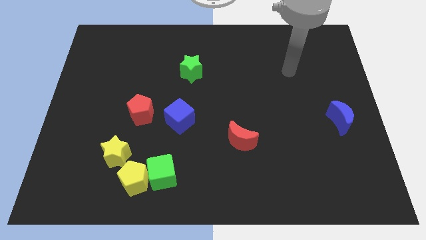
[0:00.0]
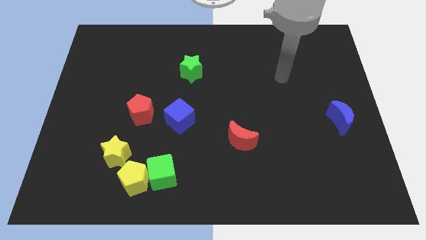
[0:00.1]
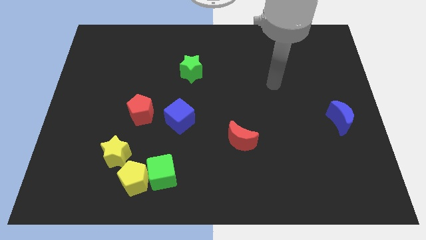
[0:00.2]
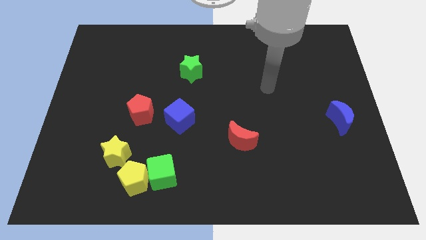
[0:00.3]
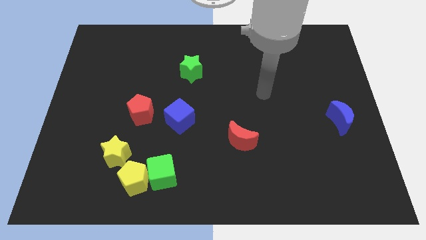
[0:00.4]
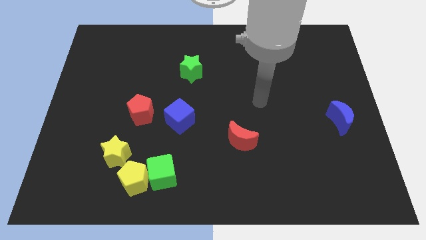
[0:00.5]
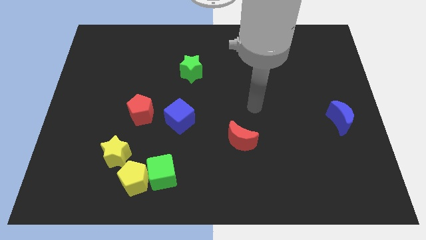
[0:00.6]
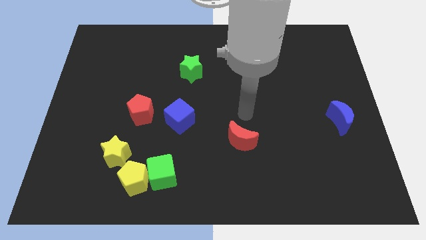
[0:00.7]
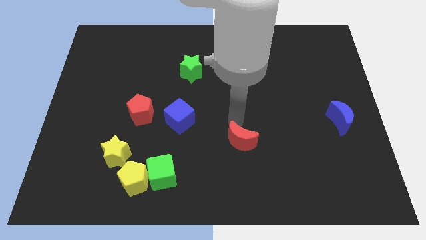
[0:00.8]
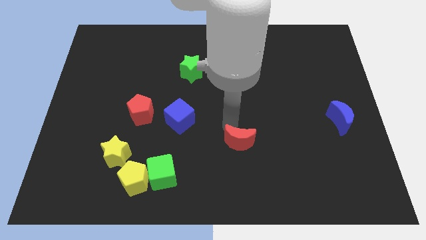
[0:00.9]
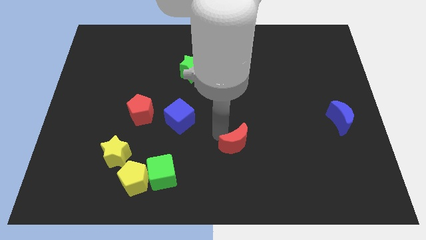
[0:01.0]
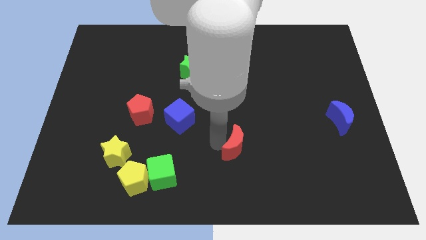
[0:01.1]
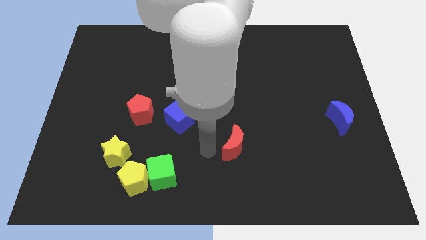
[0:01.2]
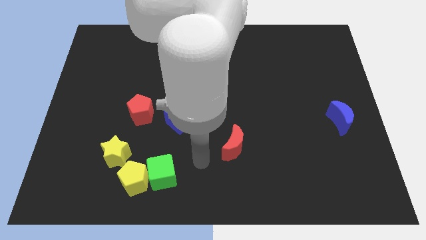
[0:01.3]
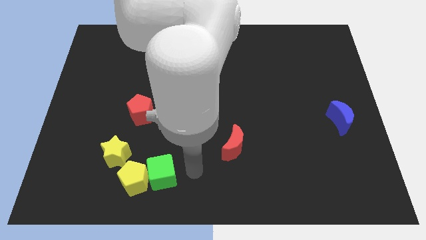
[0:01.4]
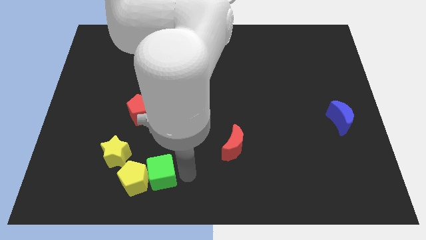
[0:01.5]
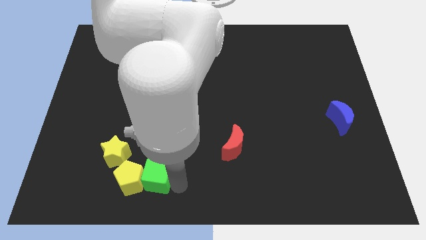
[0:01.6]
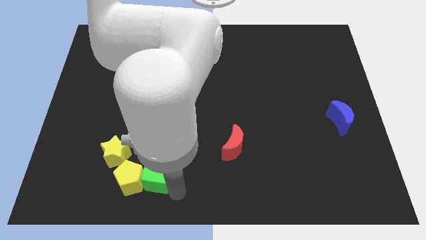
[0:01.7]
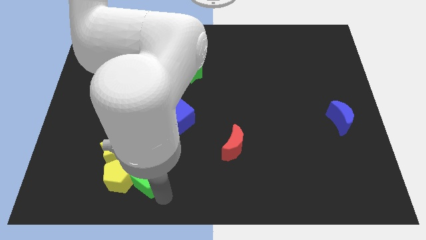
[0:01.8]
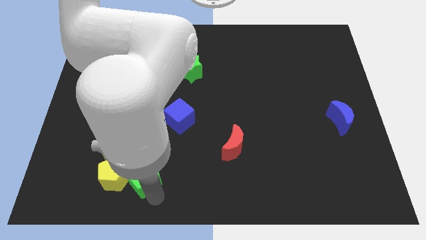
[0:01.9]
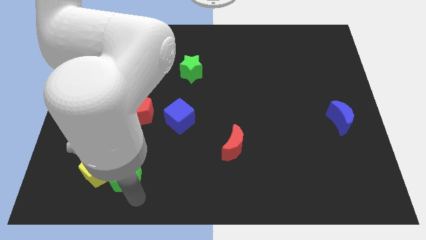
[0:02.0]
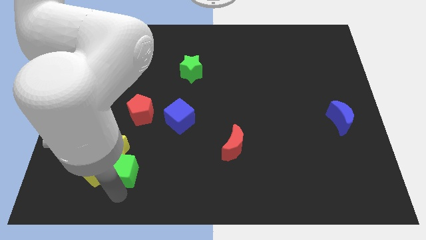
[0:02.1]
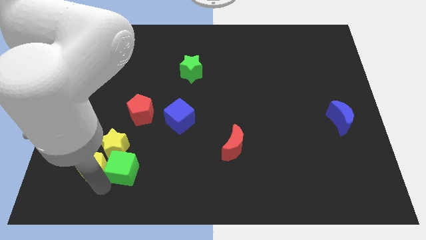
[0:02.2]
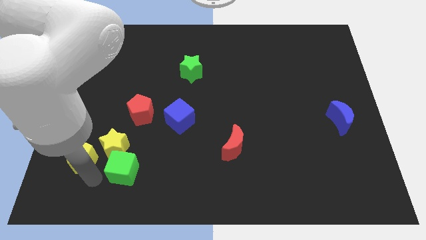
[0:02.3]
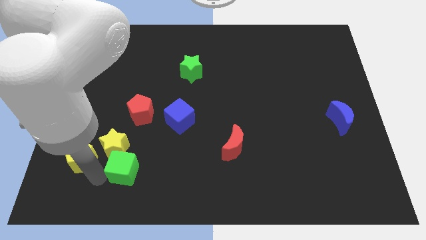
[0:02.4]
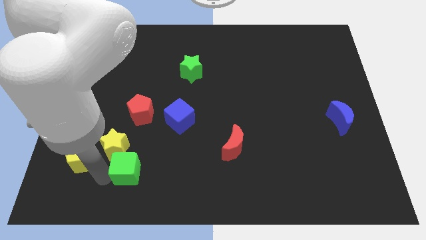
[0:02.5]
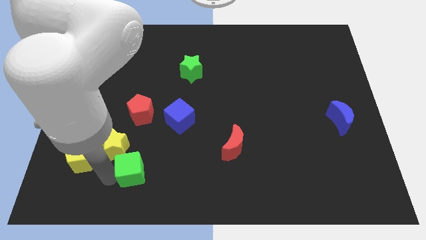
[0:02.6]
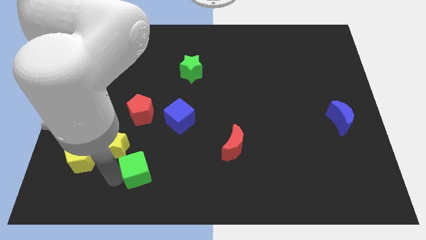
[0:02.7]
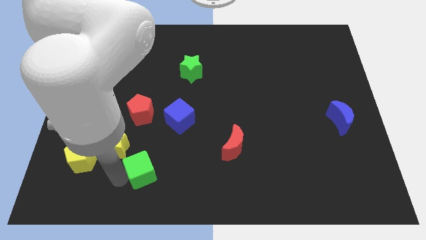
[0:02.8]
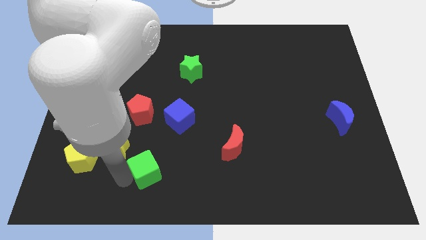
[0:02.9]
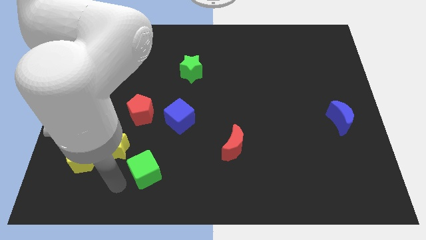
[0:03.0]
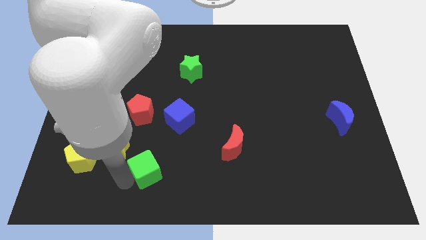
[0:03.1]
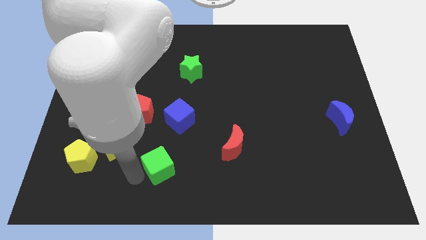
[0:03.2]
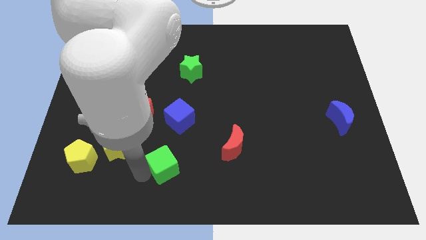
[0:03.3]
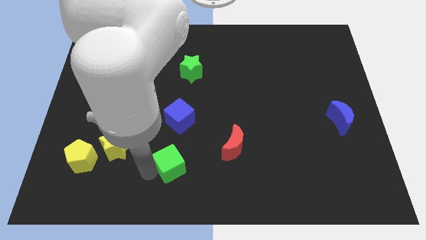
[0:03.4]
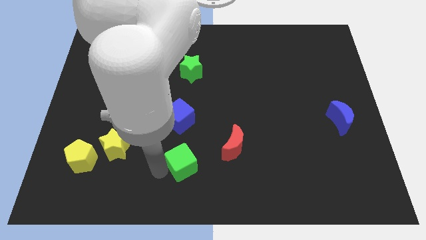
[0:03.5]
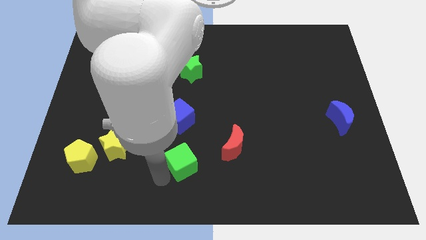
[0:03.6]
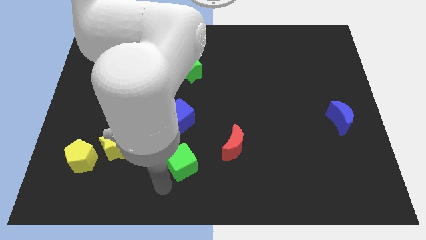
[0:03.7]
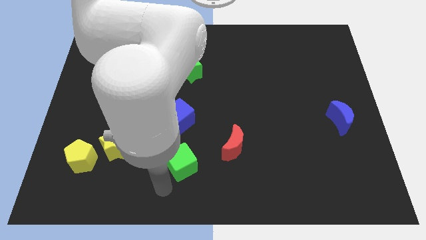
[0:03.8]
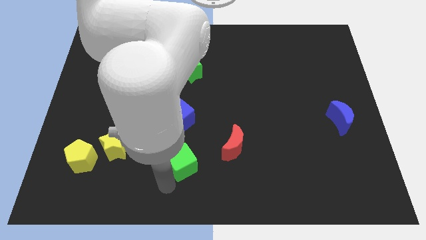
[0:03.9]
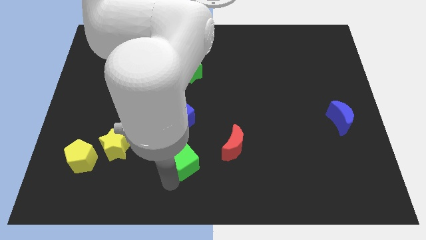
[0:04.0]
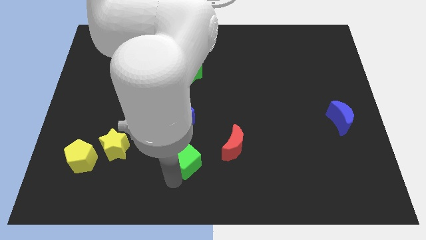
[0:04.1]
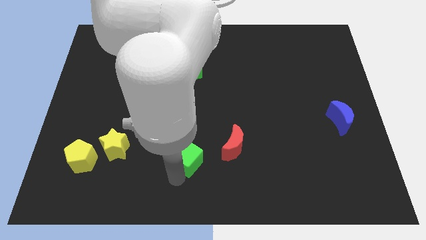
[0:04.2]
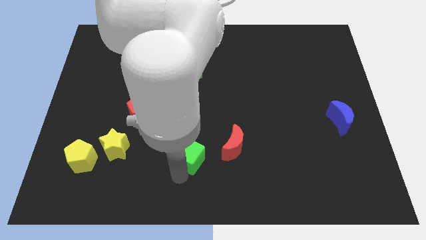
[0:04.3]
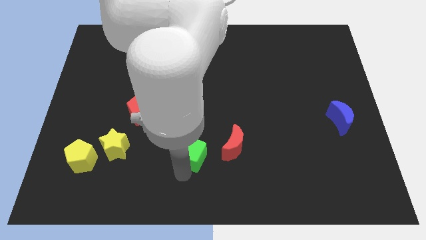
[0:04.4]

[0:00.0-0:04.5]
move the green cube to the bottom right of the blue cube

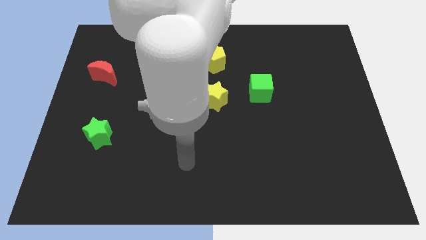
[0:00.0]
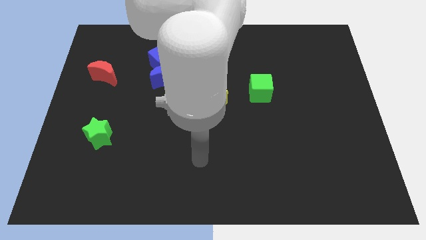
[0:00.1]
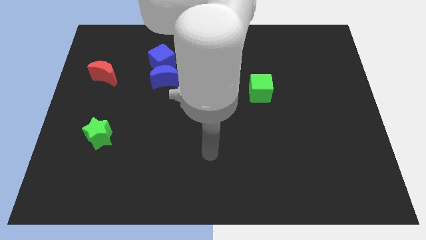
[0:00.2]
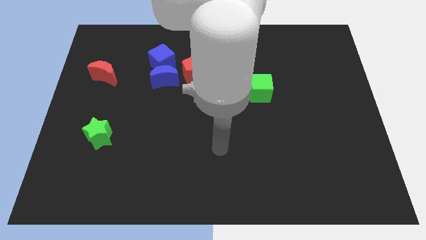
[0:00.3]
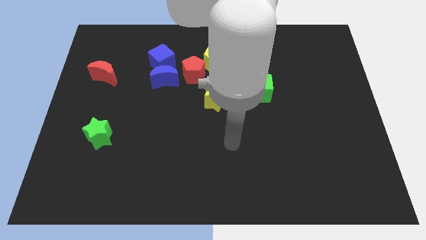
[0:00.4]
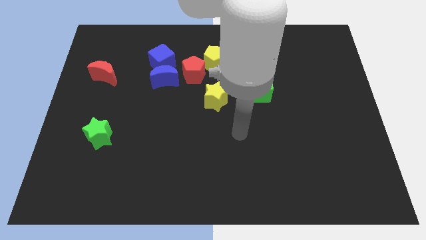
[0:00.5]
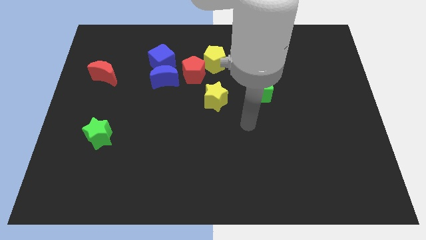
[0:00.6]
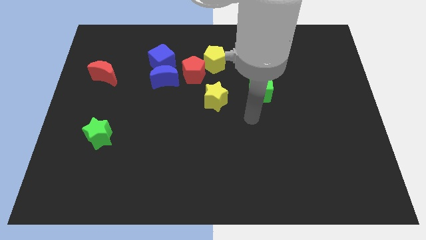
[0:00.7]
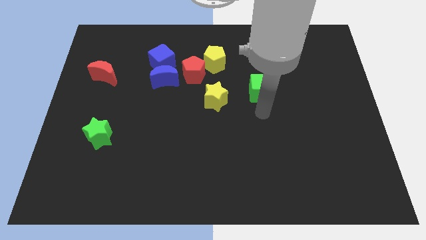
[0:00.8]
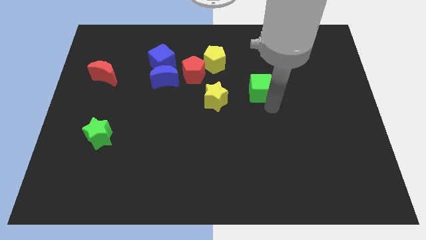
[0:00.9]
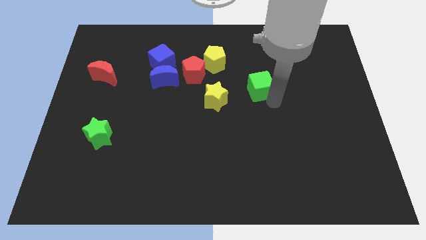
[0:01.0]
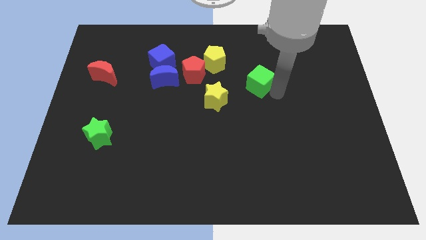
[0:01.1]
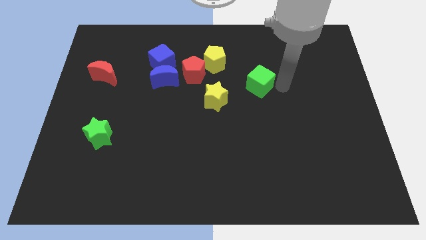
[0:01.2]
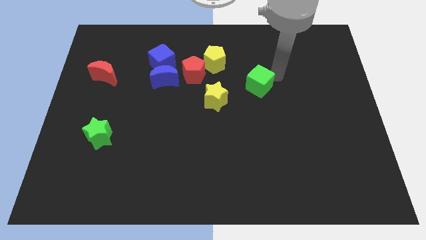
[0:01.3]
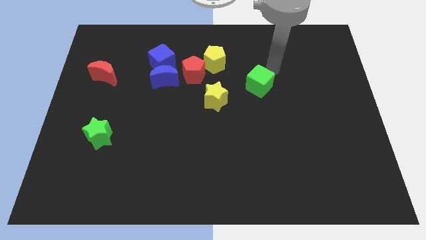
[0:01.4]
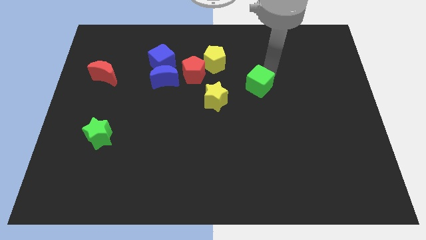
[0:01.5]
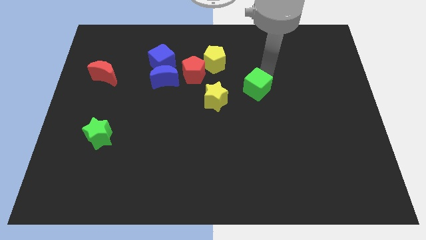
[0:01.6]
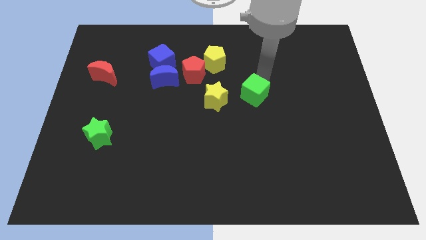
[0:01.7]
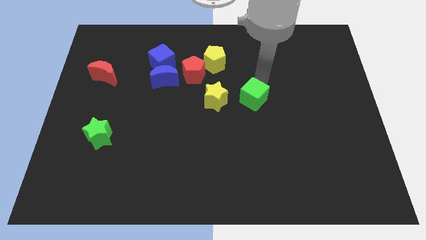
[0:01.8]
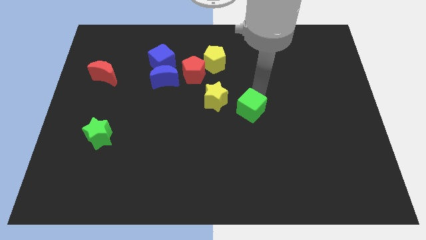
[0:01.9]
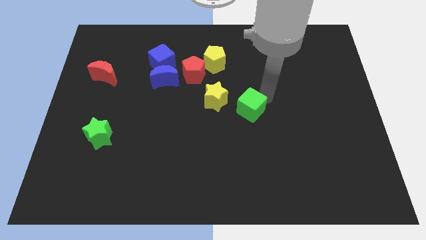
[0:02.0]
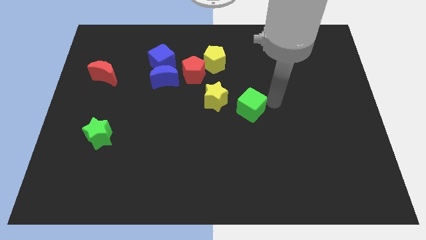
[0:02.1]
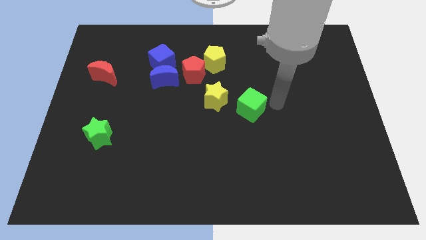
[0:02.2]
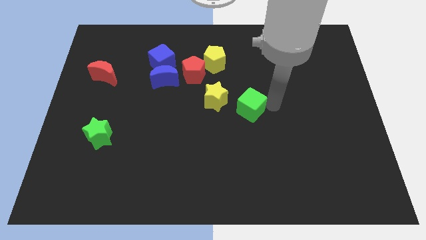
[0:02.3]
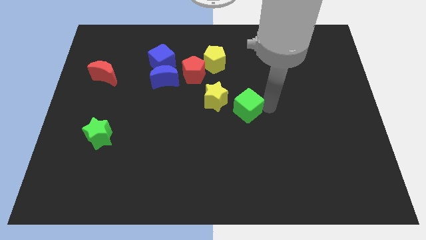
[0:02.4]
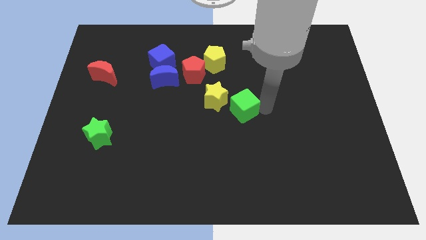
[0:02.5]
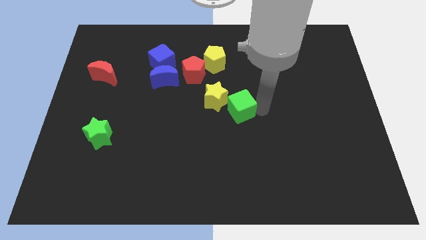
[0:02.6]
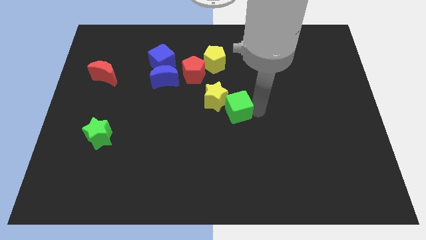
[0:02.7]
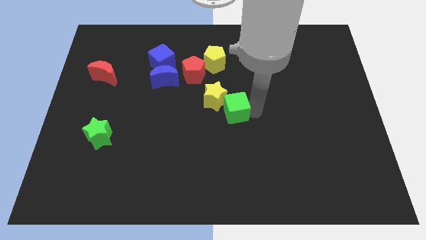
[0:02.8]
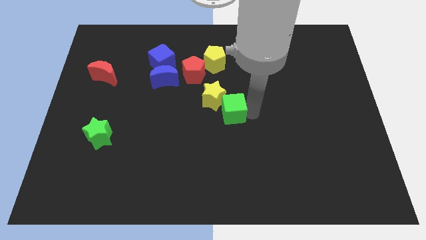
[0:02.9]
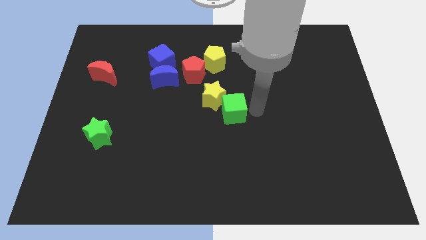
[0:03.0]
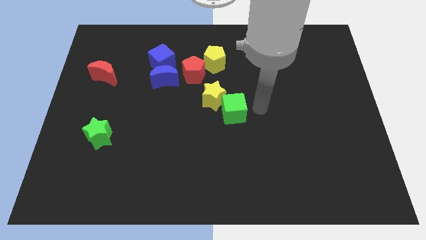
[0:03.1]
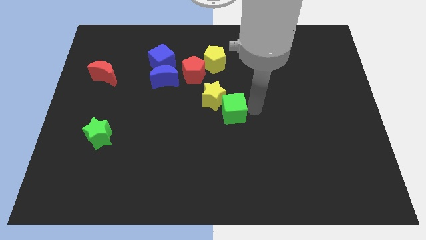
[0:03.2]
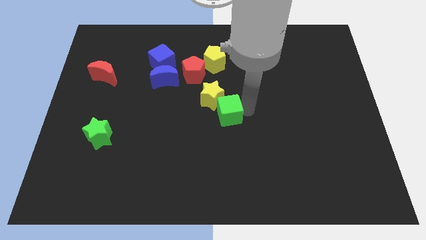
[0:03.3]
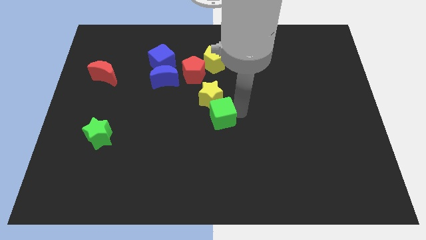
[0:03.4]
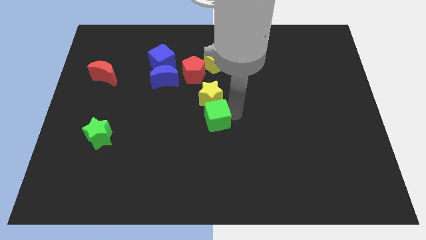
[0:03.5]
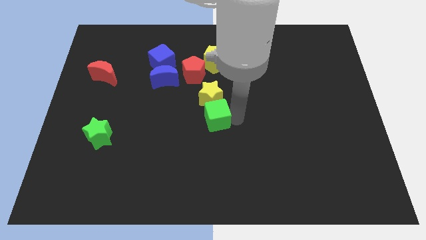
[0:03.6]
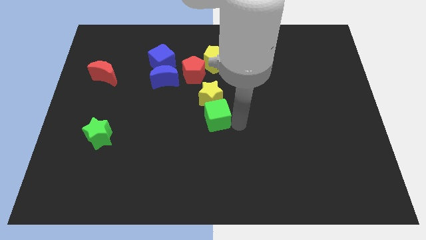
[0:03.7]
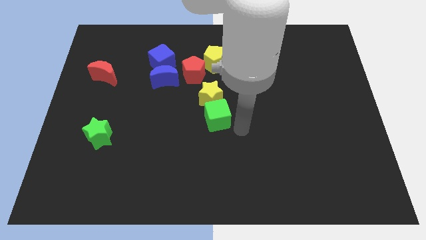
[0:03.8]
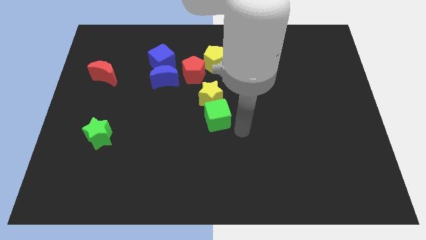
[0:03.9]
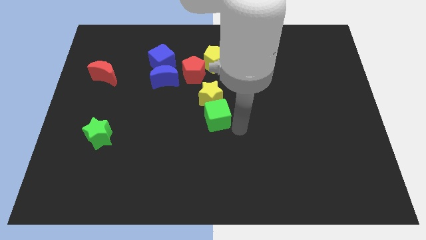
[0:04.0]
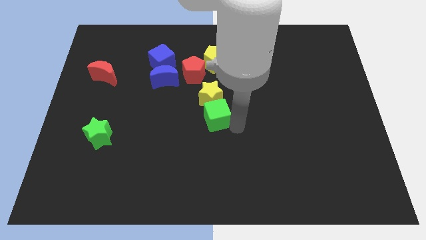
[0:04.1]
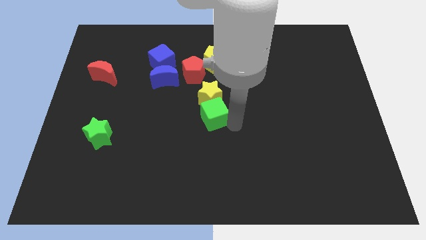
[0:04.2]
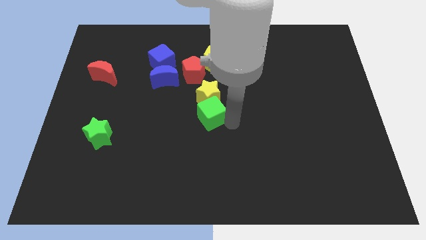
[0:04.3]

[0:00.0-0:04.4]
push the green cube to the bottom side of the red pentagon
